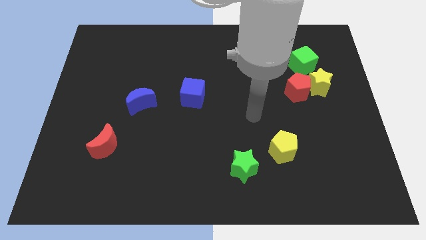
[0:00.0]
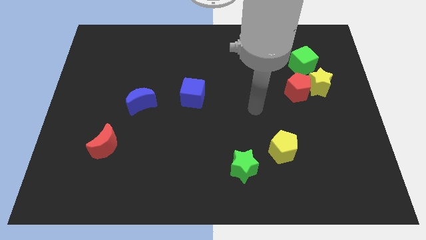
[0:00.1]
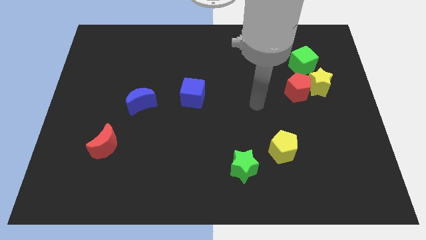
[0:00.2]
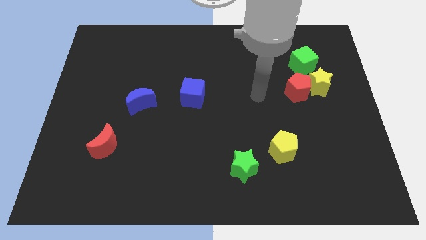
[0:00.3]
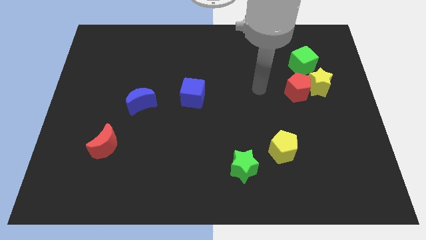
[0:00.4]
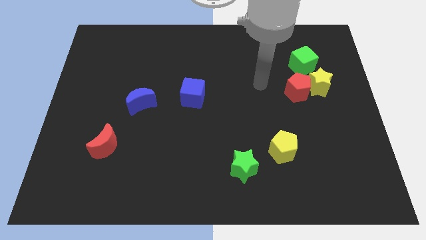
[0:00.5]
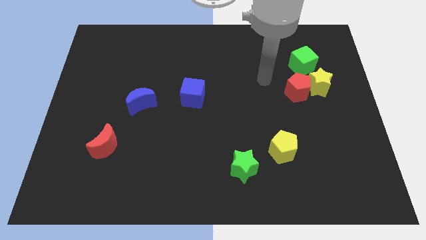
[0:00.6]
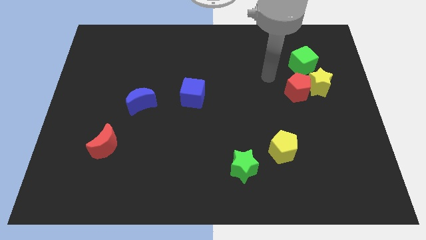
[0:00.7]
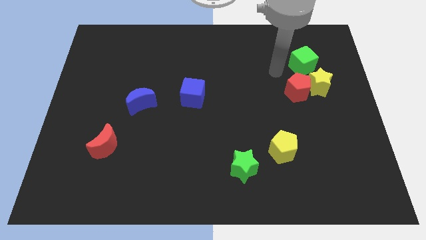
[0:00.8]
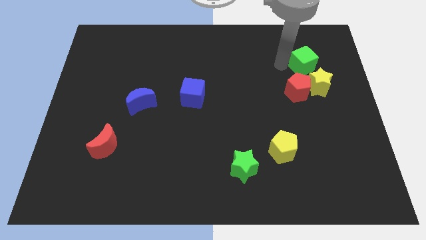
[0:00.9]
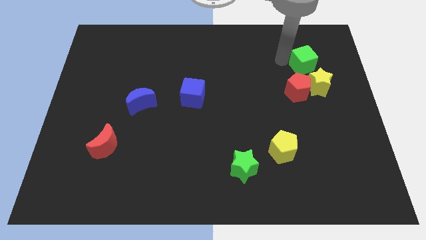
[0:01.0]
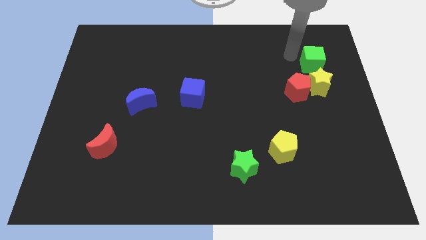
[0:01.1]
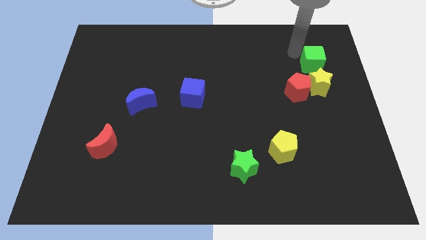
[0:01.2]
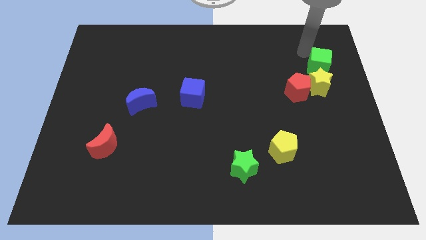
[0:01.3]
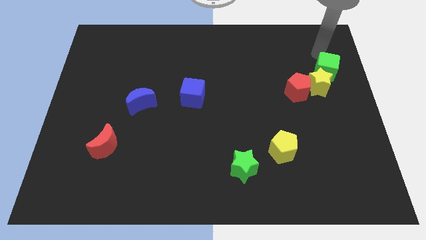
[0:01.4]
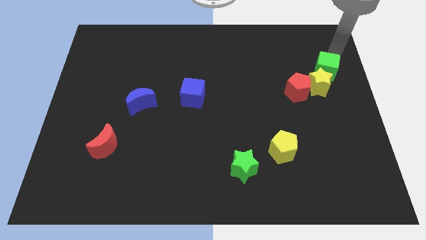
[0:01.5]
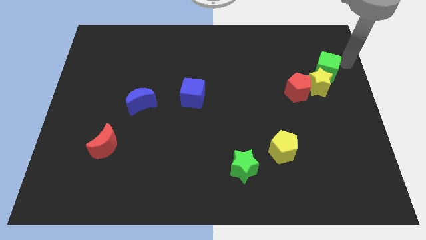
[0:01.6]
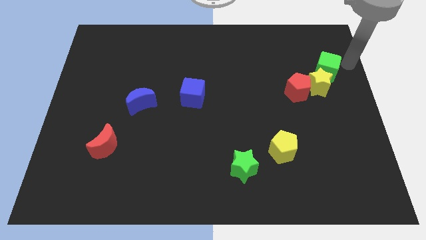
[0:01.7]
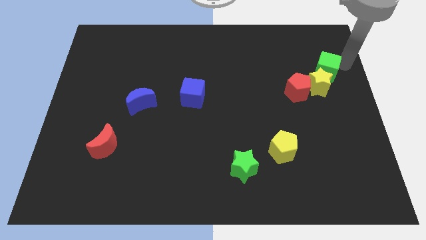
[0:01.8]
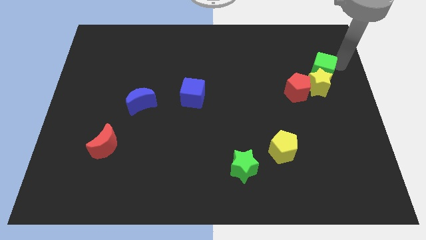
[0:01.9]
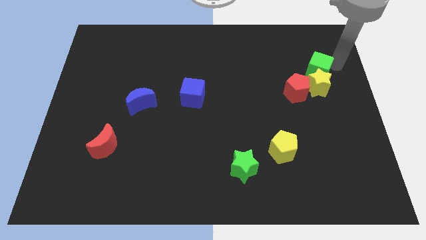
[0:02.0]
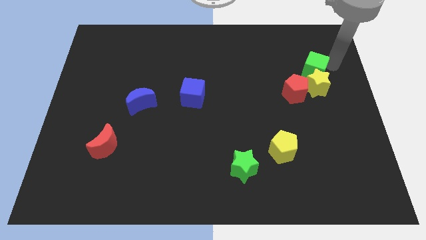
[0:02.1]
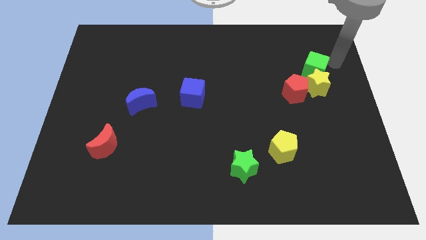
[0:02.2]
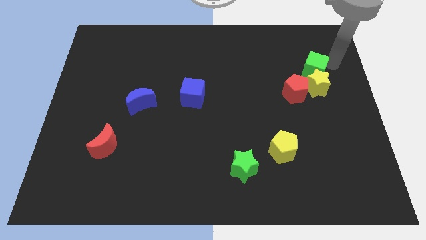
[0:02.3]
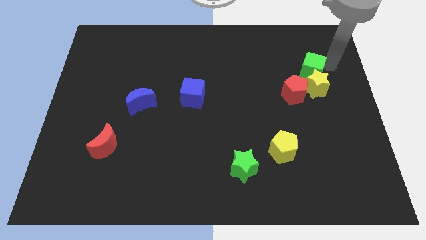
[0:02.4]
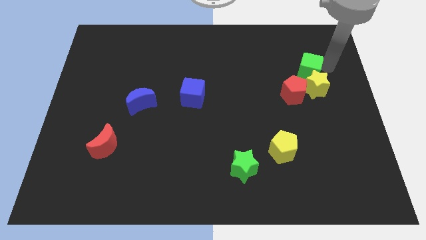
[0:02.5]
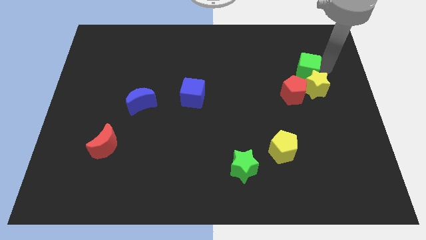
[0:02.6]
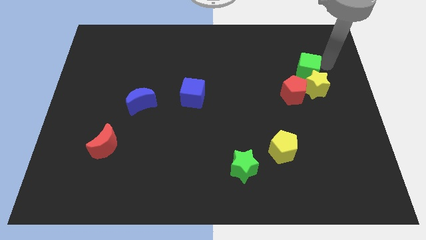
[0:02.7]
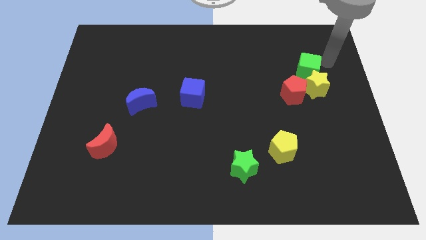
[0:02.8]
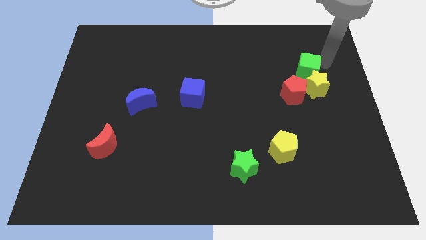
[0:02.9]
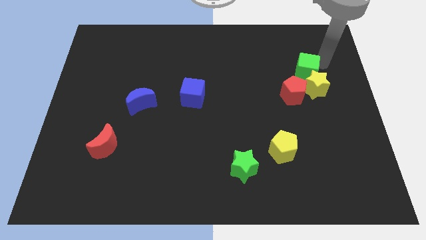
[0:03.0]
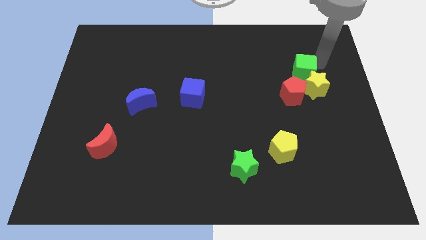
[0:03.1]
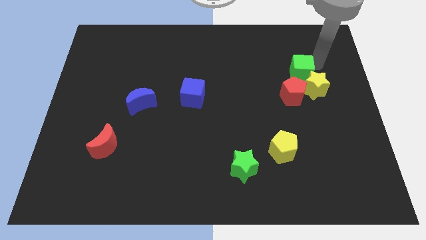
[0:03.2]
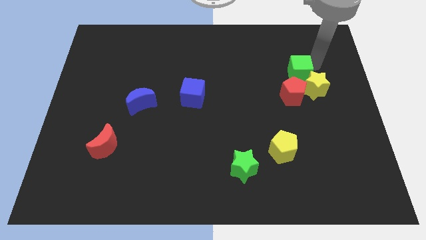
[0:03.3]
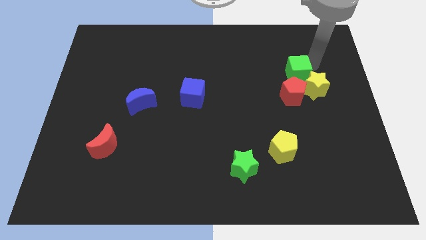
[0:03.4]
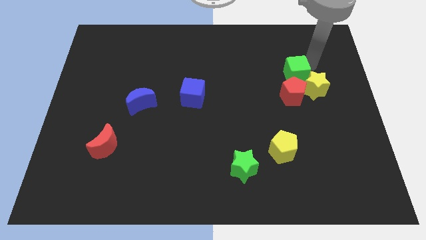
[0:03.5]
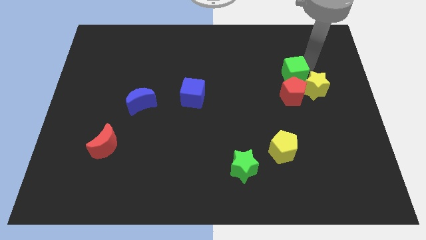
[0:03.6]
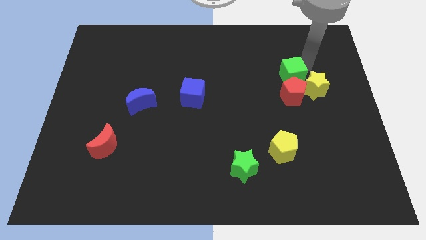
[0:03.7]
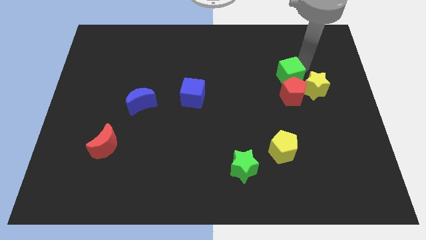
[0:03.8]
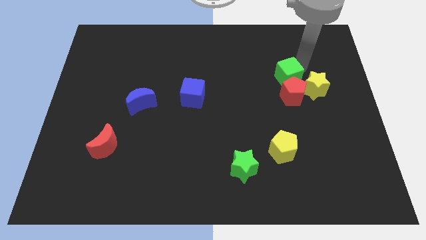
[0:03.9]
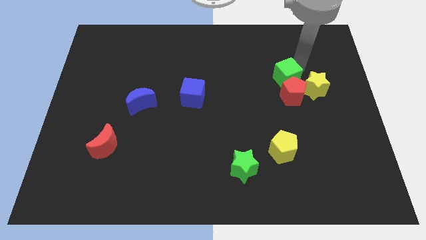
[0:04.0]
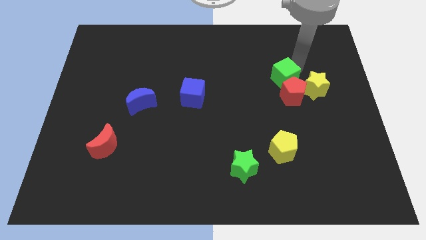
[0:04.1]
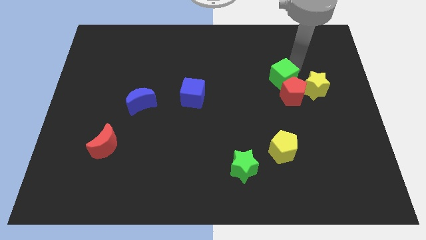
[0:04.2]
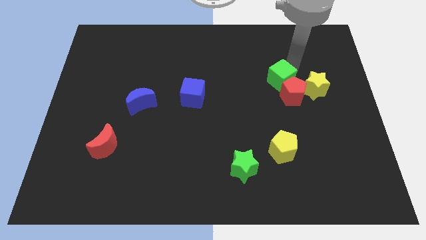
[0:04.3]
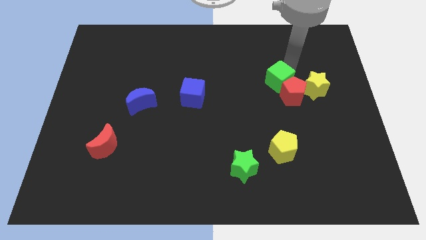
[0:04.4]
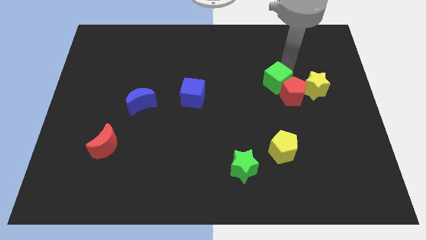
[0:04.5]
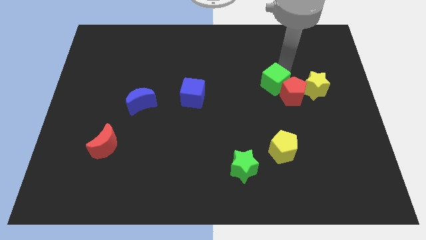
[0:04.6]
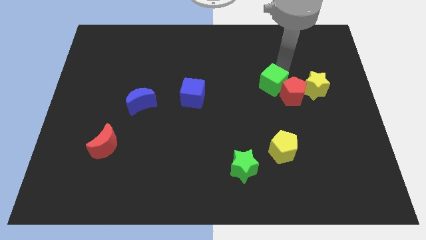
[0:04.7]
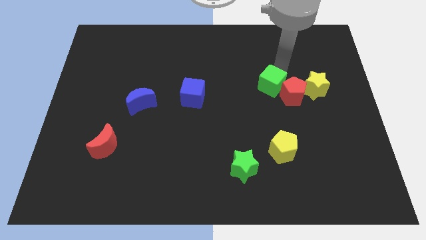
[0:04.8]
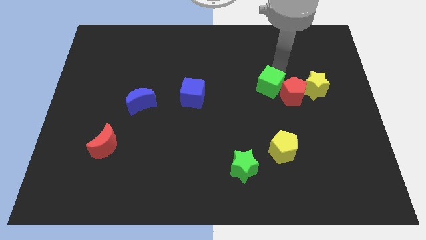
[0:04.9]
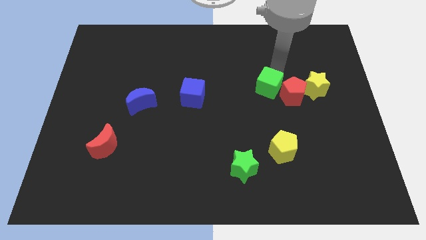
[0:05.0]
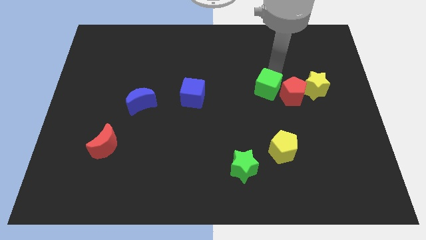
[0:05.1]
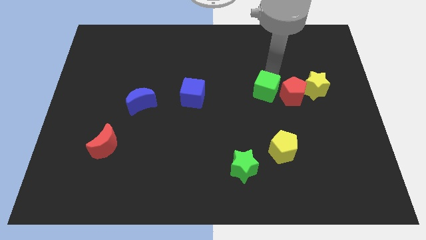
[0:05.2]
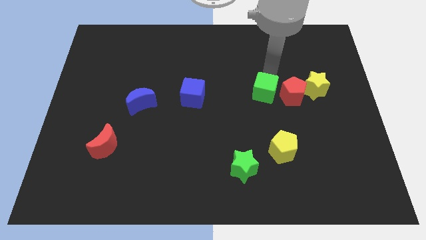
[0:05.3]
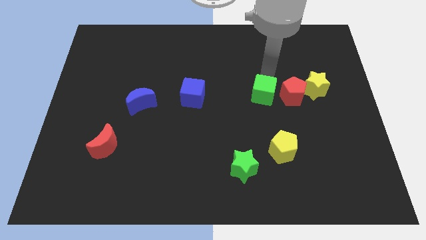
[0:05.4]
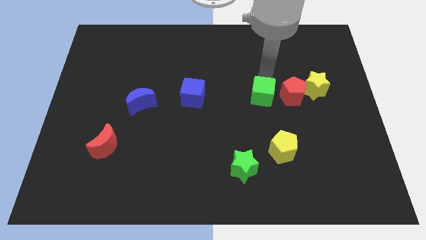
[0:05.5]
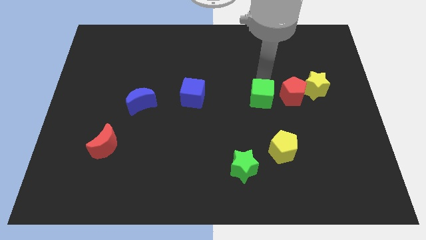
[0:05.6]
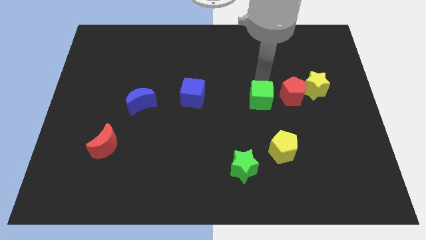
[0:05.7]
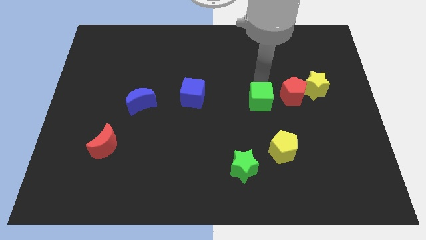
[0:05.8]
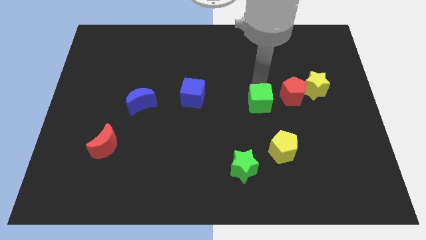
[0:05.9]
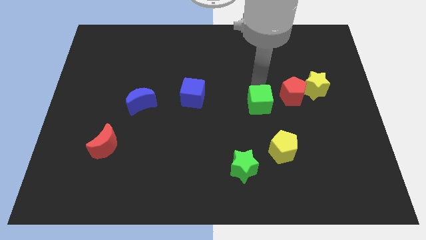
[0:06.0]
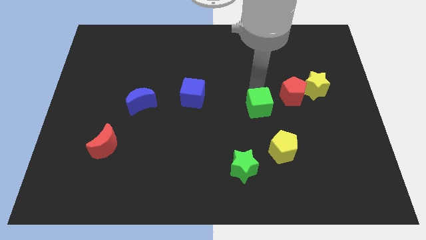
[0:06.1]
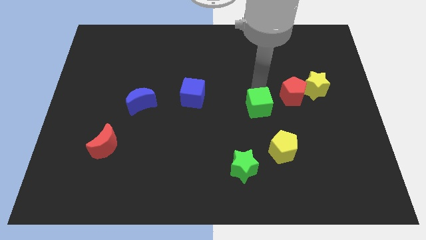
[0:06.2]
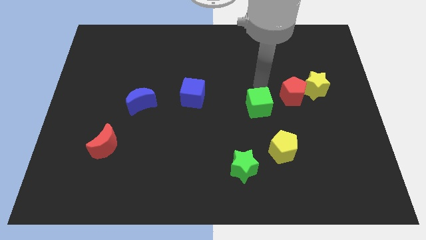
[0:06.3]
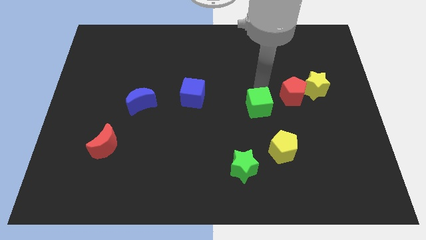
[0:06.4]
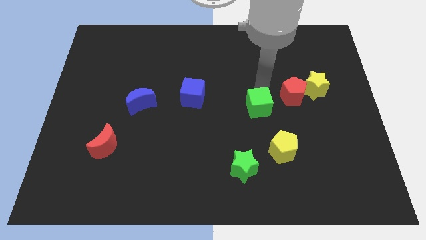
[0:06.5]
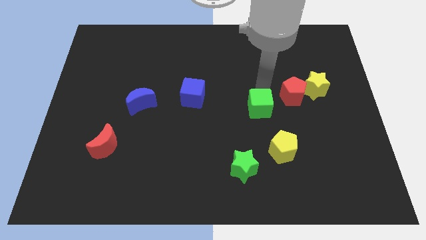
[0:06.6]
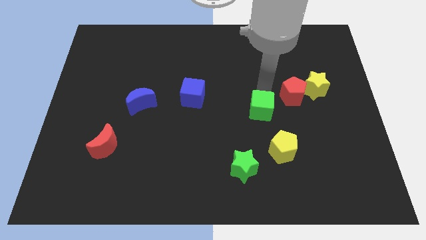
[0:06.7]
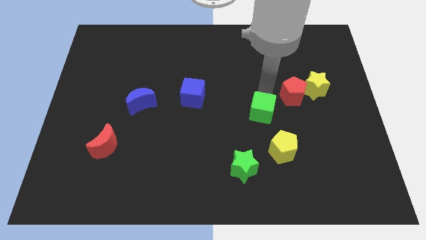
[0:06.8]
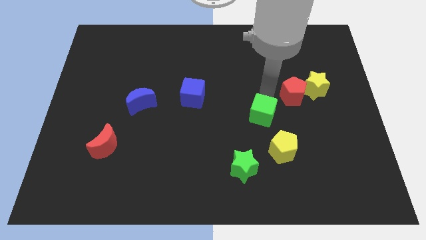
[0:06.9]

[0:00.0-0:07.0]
push the green cube to the top left side of the yellow pentagon

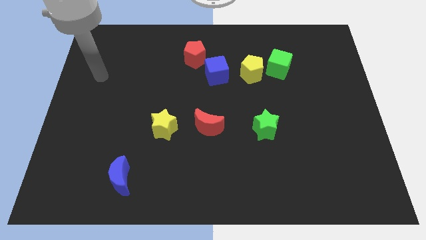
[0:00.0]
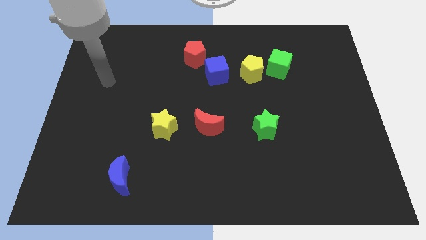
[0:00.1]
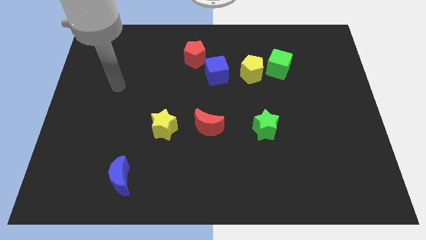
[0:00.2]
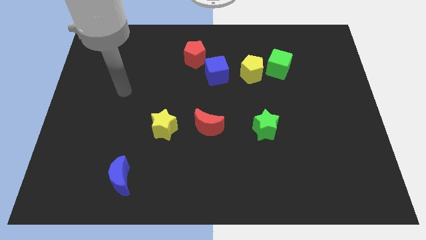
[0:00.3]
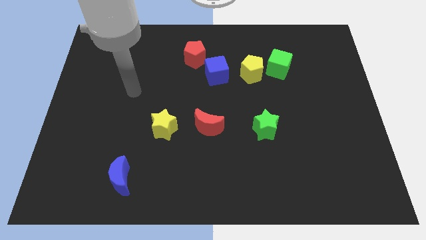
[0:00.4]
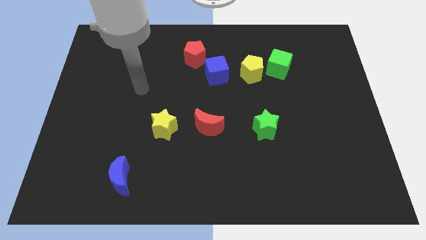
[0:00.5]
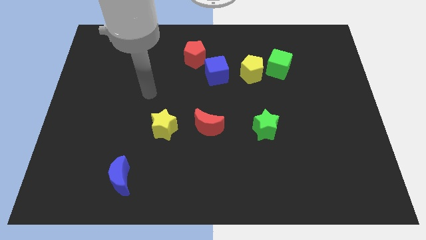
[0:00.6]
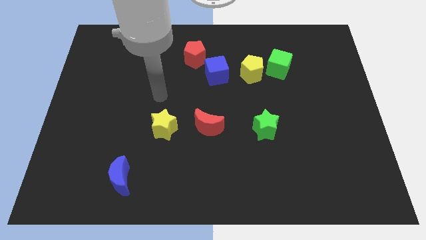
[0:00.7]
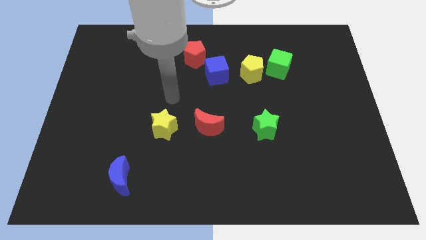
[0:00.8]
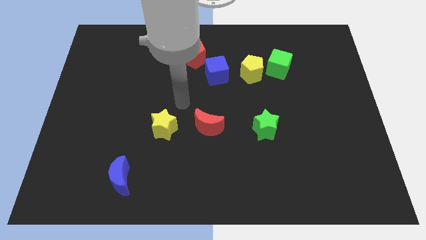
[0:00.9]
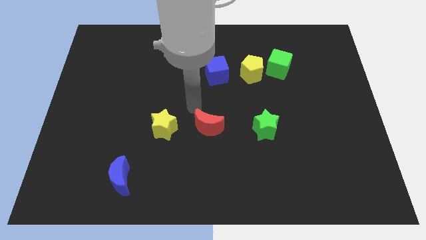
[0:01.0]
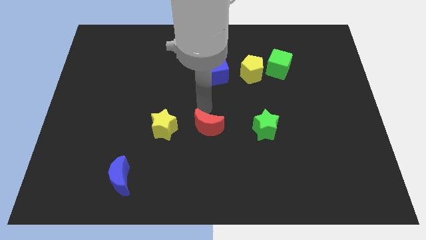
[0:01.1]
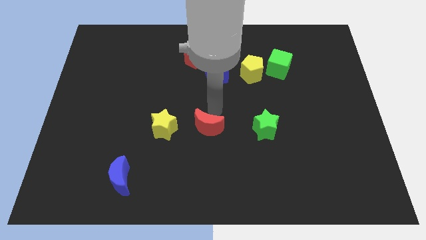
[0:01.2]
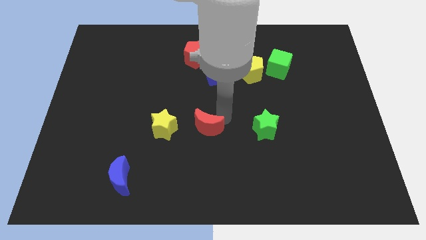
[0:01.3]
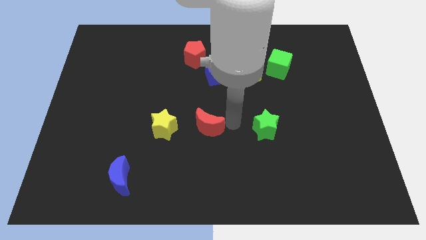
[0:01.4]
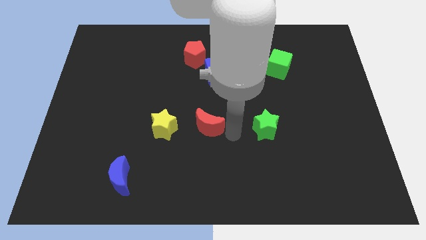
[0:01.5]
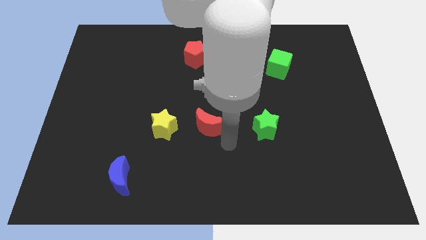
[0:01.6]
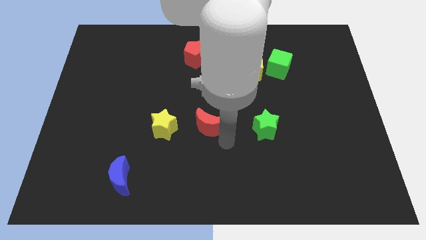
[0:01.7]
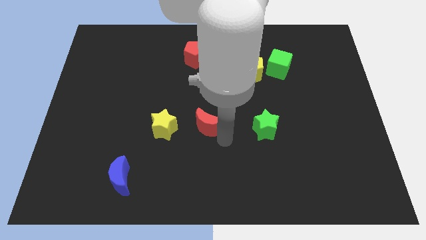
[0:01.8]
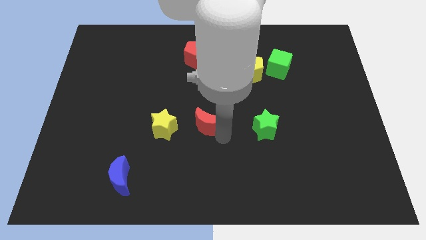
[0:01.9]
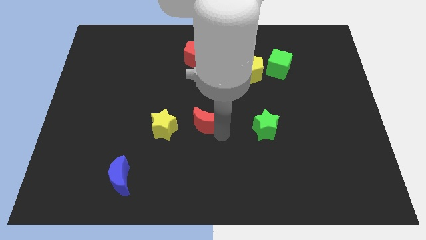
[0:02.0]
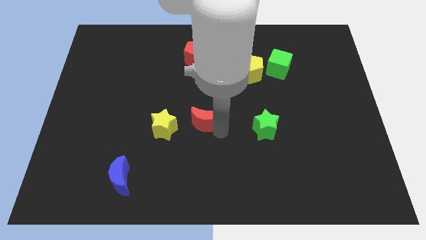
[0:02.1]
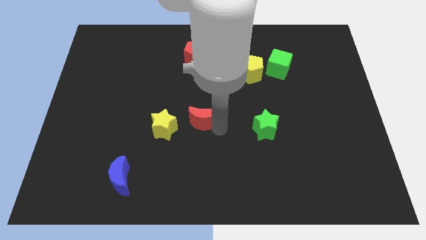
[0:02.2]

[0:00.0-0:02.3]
slide the red moon to the top right side of the yellow star
